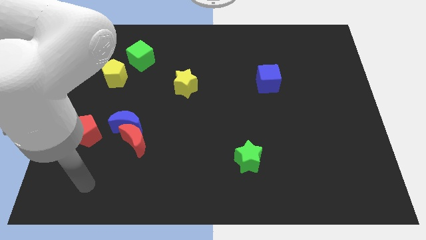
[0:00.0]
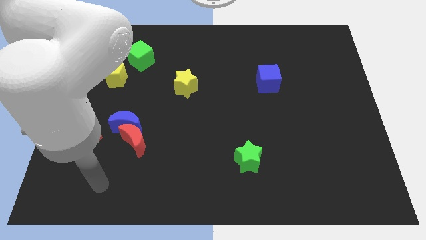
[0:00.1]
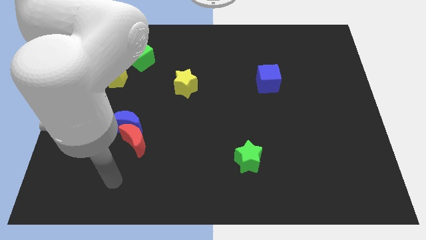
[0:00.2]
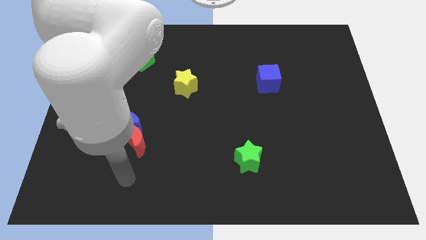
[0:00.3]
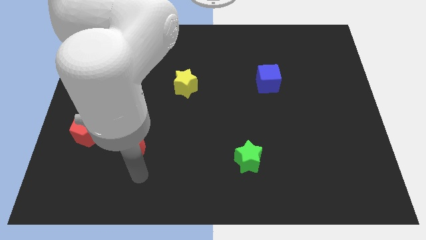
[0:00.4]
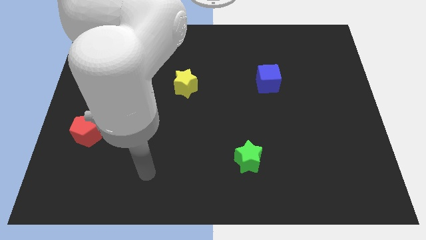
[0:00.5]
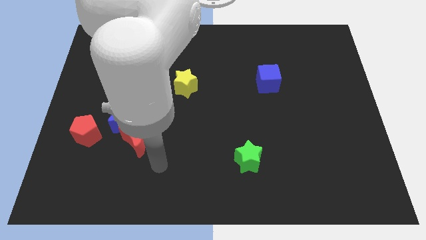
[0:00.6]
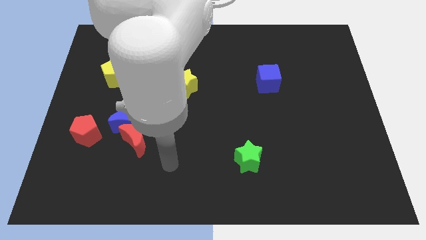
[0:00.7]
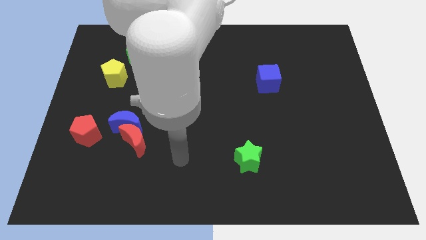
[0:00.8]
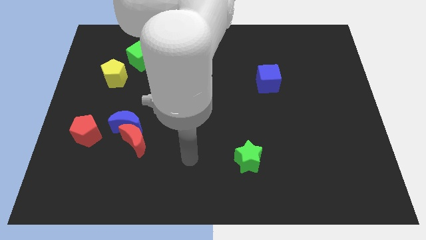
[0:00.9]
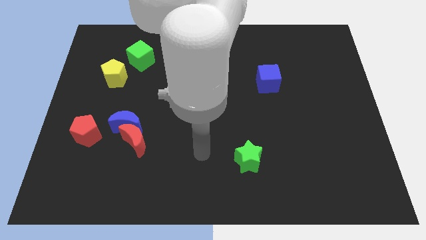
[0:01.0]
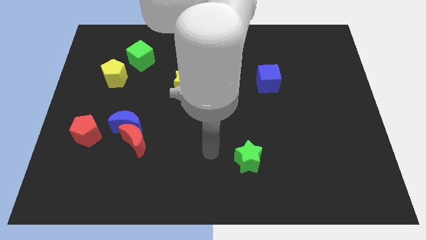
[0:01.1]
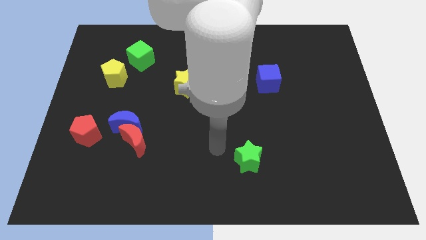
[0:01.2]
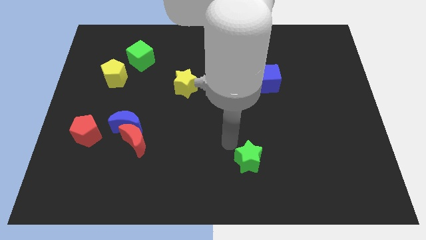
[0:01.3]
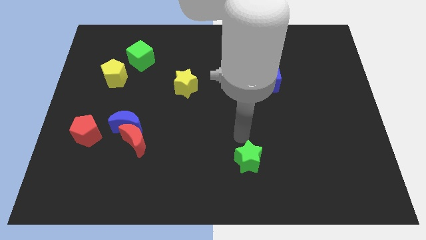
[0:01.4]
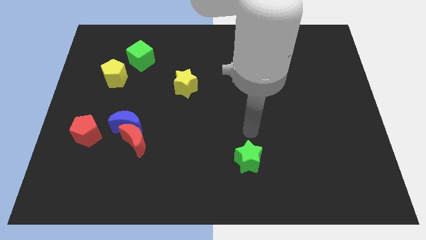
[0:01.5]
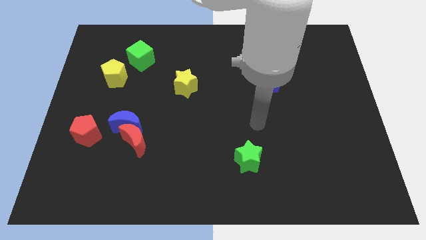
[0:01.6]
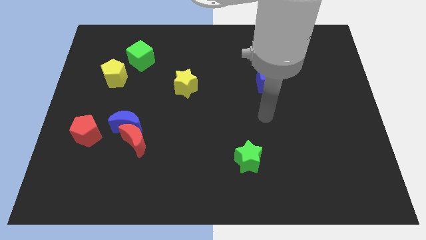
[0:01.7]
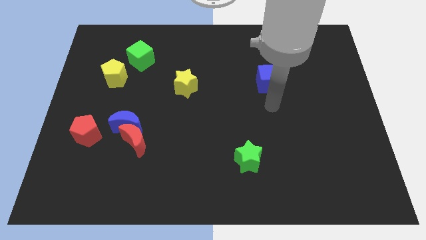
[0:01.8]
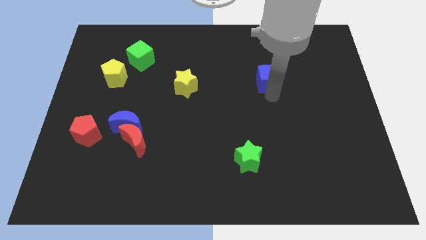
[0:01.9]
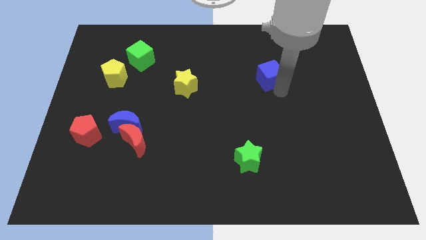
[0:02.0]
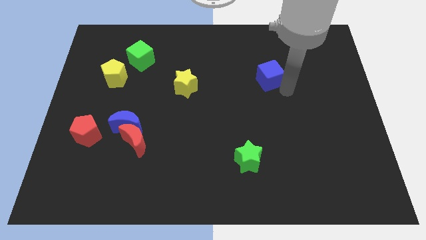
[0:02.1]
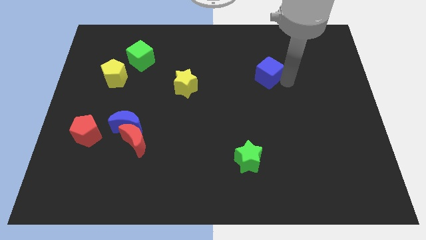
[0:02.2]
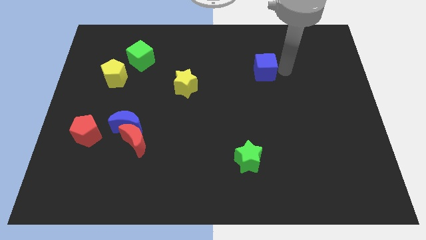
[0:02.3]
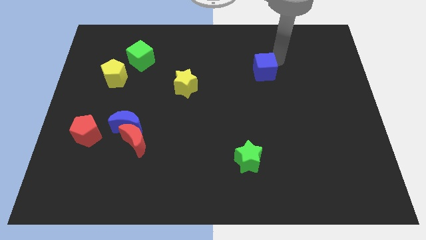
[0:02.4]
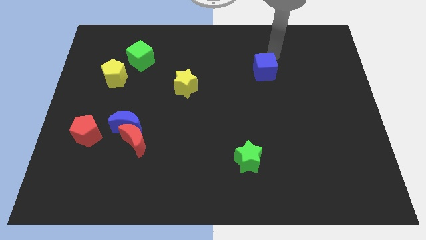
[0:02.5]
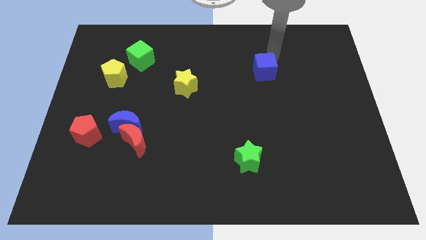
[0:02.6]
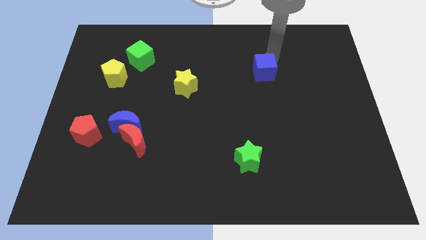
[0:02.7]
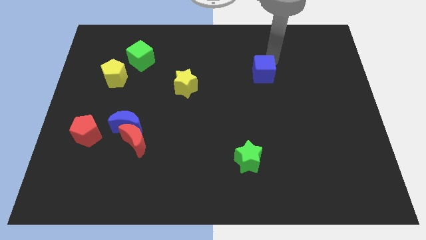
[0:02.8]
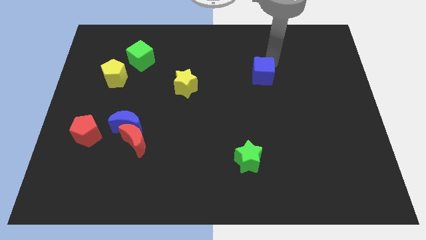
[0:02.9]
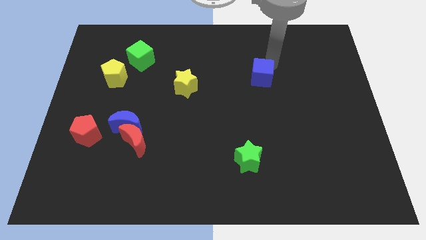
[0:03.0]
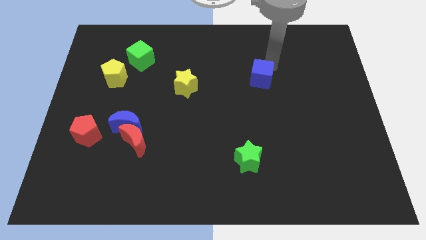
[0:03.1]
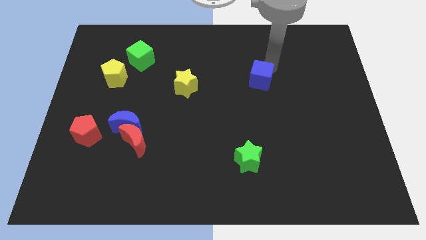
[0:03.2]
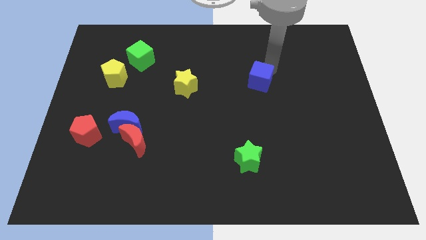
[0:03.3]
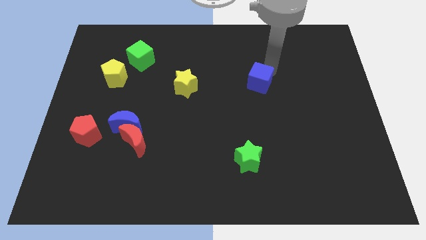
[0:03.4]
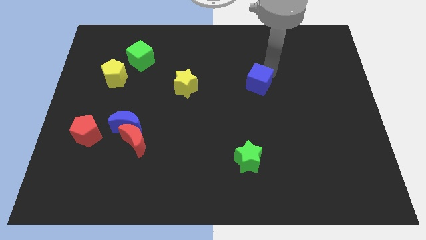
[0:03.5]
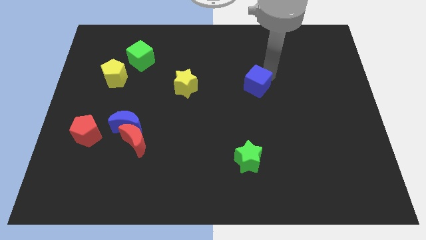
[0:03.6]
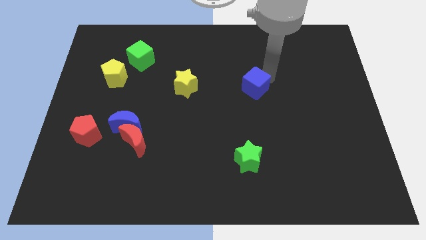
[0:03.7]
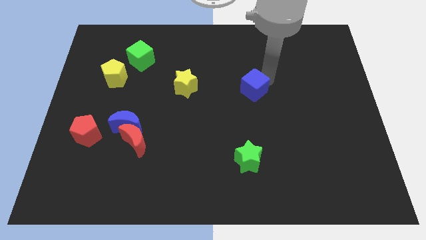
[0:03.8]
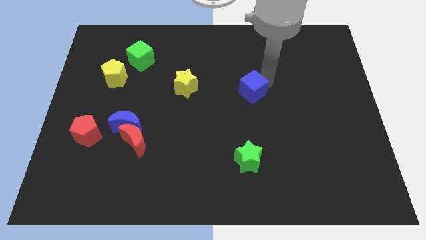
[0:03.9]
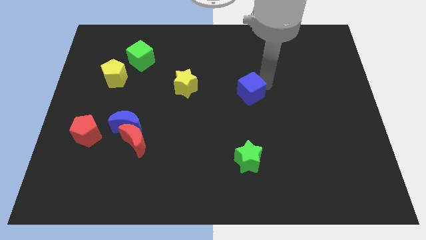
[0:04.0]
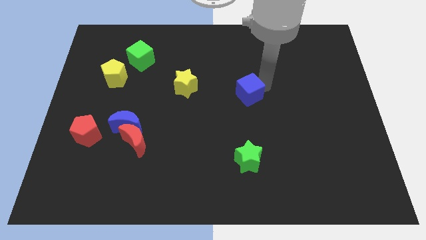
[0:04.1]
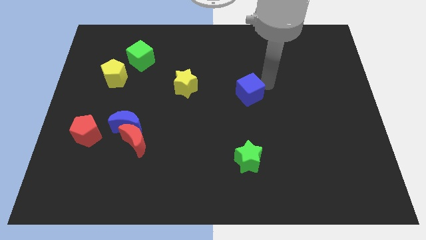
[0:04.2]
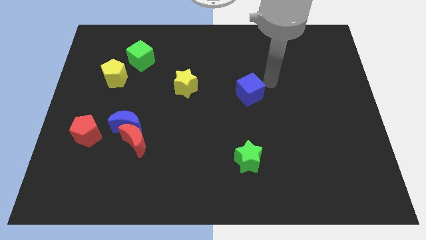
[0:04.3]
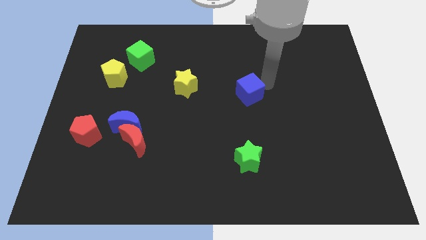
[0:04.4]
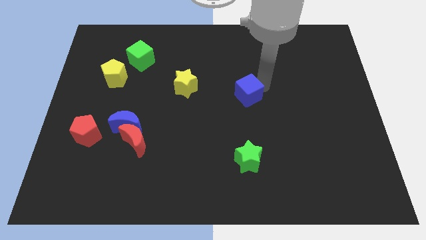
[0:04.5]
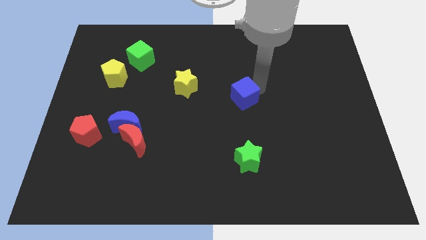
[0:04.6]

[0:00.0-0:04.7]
move the blue cube down and left diagonally somewhat

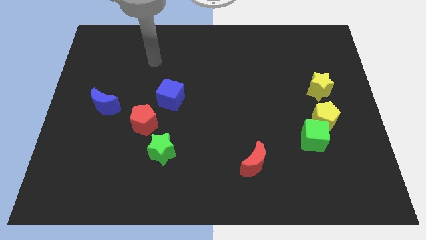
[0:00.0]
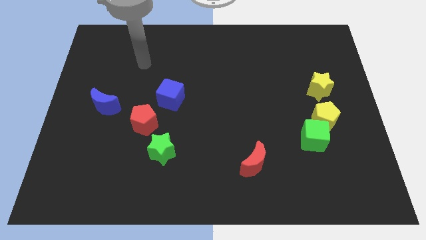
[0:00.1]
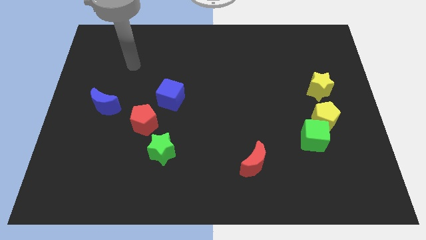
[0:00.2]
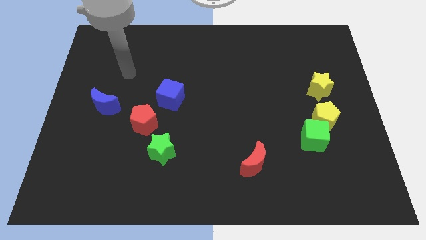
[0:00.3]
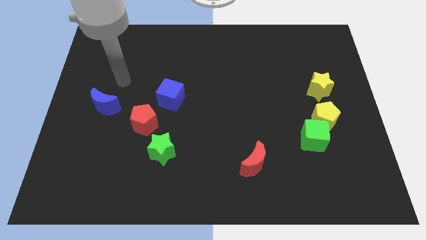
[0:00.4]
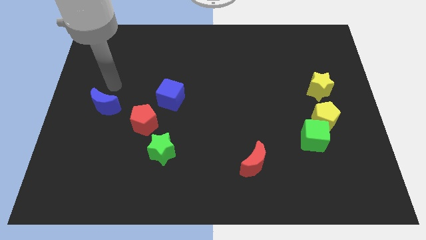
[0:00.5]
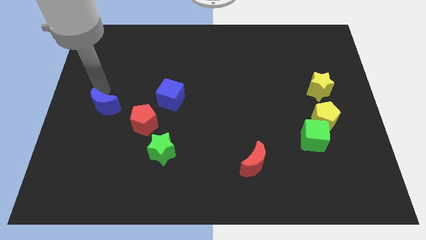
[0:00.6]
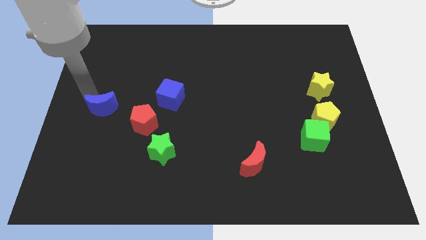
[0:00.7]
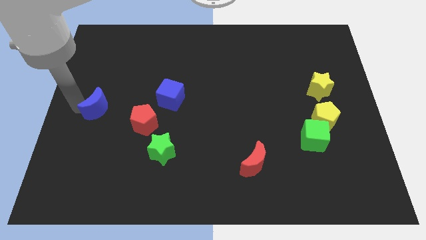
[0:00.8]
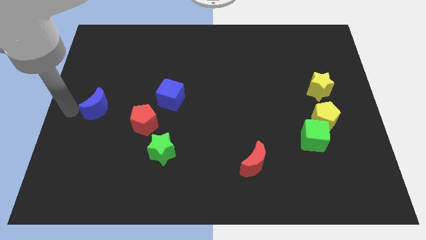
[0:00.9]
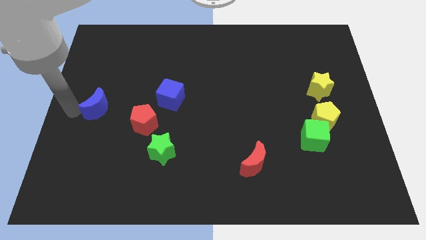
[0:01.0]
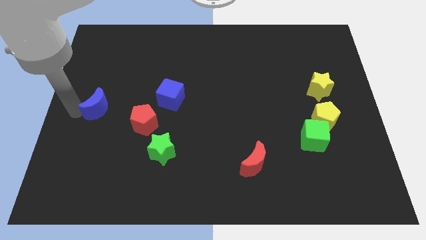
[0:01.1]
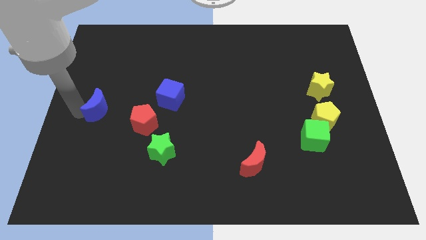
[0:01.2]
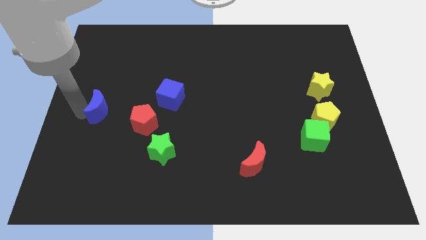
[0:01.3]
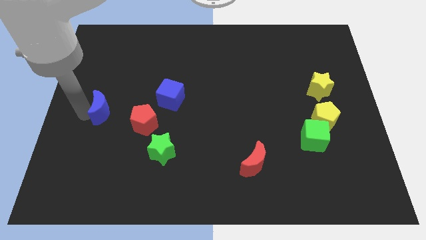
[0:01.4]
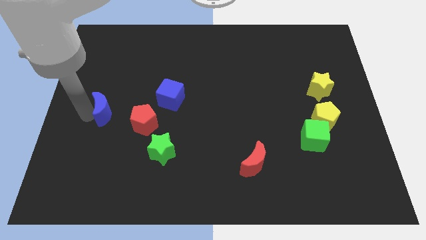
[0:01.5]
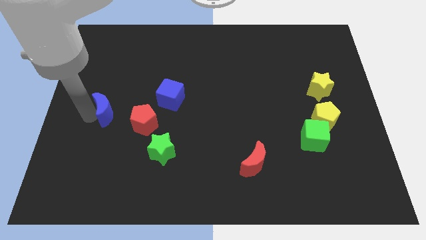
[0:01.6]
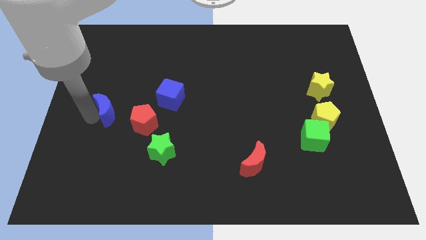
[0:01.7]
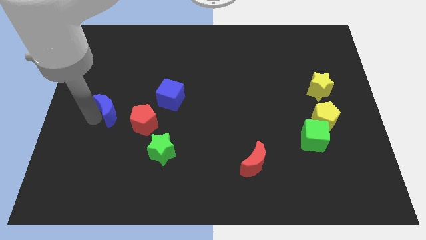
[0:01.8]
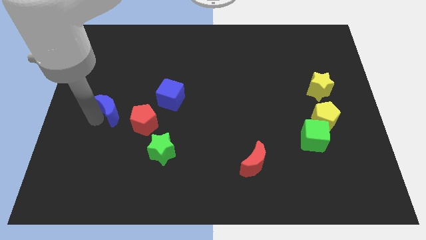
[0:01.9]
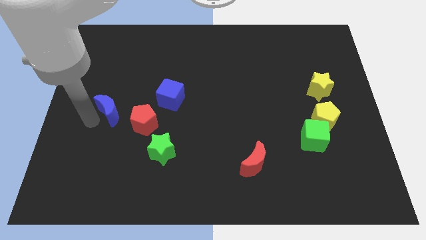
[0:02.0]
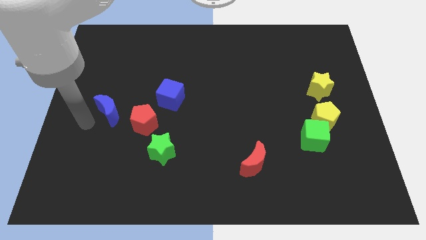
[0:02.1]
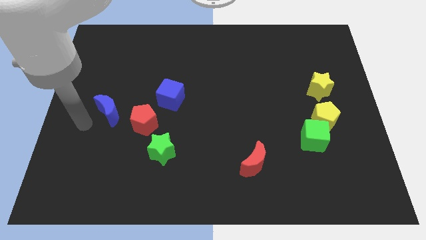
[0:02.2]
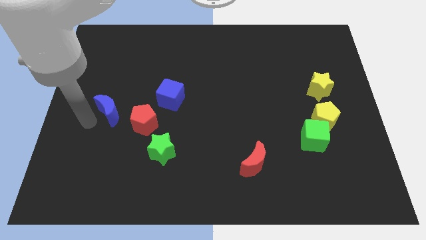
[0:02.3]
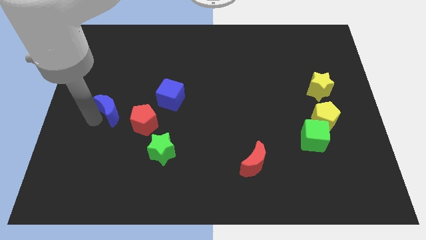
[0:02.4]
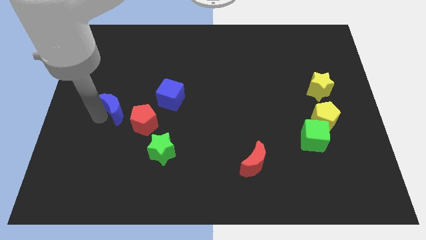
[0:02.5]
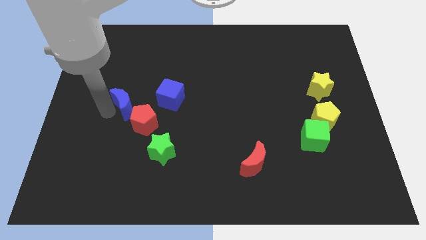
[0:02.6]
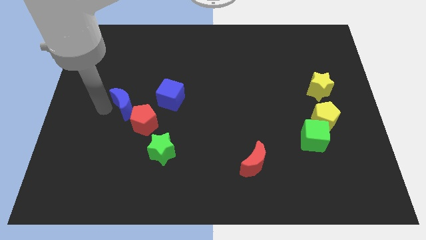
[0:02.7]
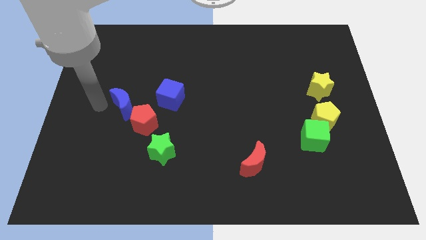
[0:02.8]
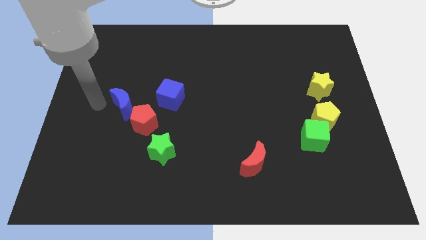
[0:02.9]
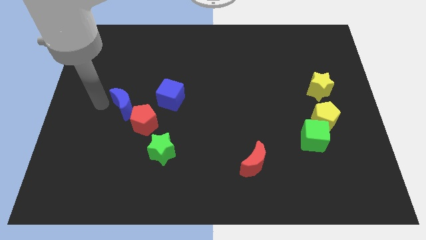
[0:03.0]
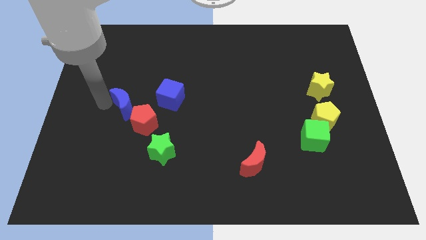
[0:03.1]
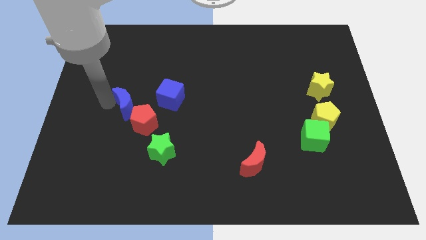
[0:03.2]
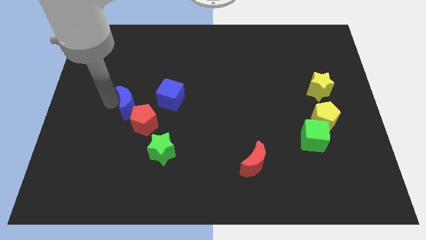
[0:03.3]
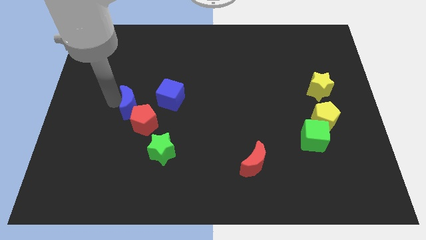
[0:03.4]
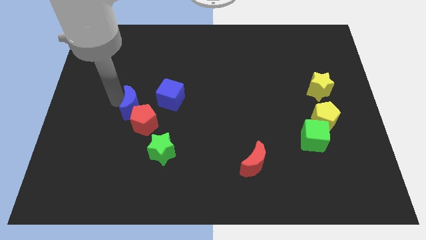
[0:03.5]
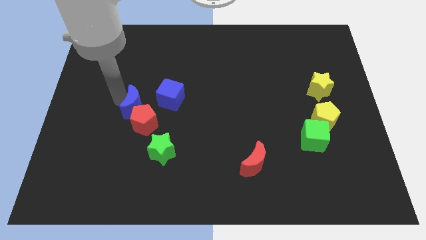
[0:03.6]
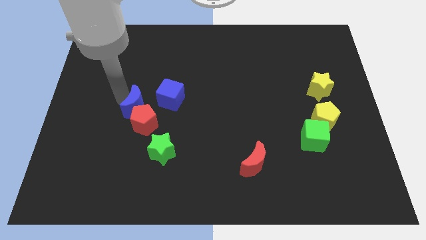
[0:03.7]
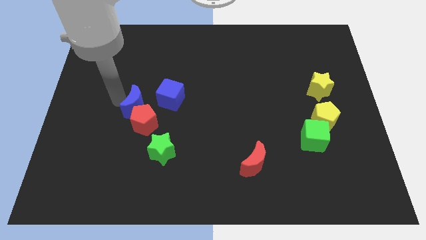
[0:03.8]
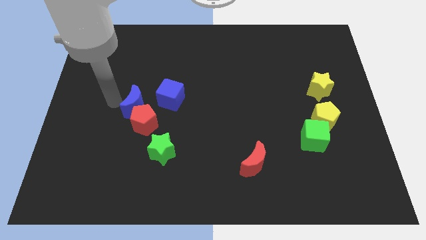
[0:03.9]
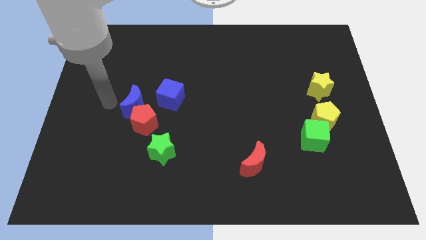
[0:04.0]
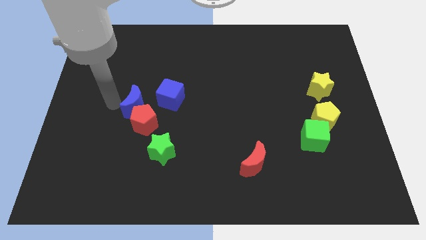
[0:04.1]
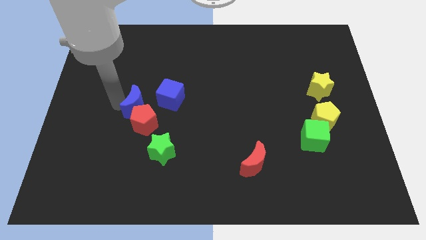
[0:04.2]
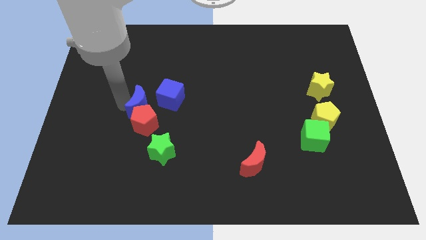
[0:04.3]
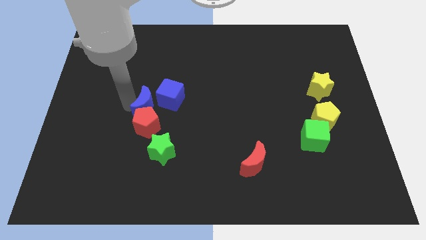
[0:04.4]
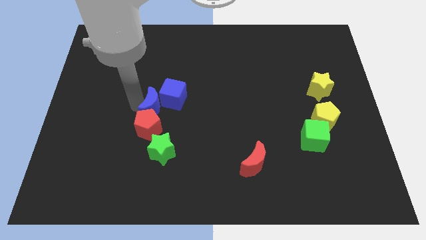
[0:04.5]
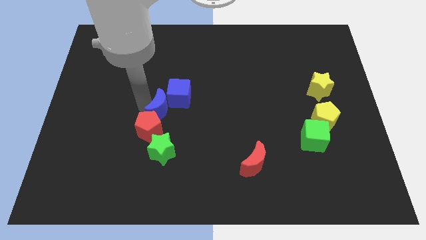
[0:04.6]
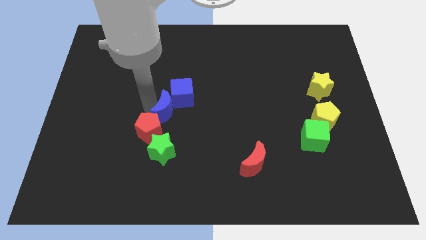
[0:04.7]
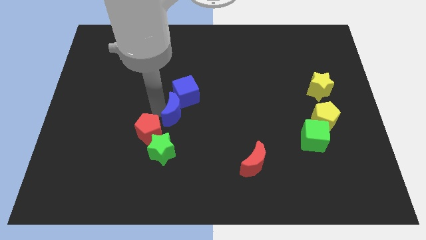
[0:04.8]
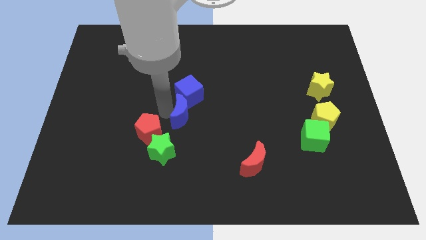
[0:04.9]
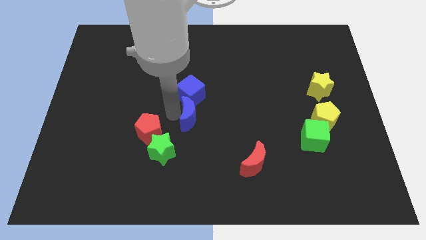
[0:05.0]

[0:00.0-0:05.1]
move the blue moon to the right
